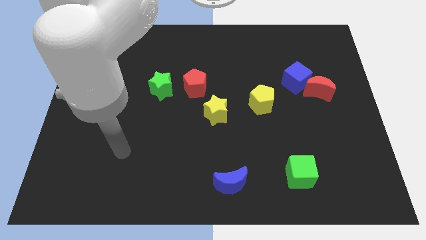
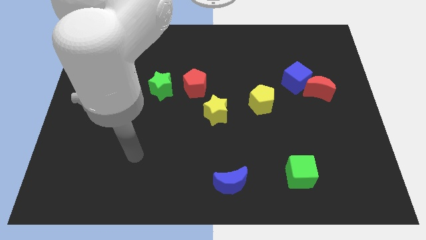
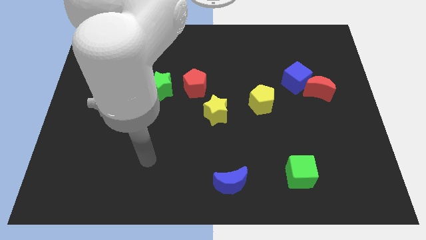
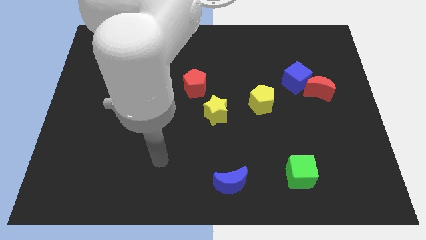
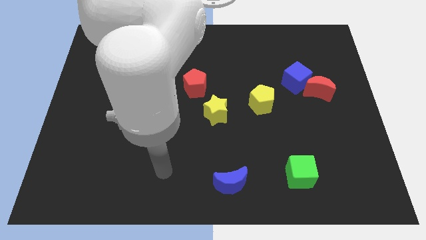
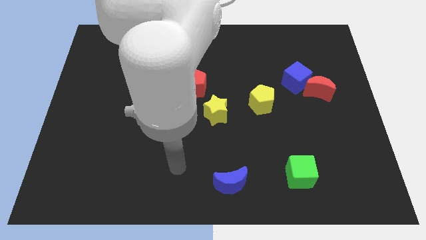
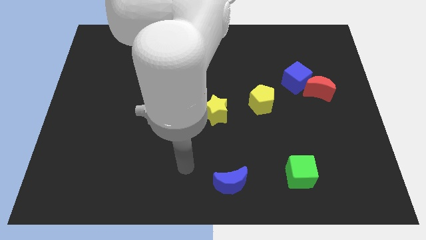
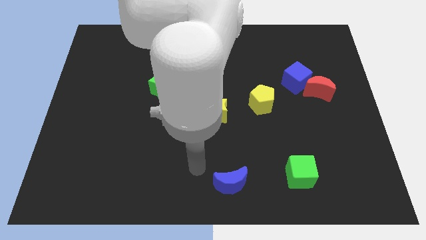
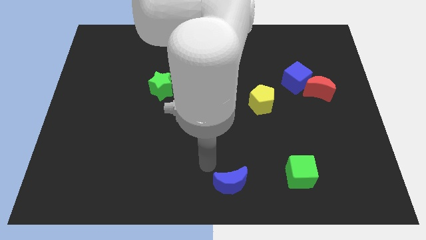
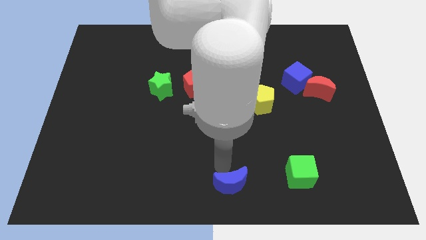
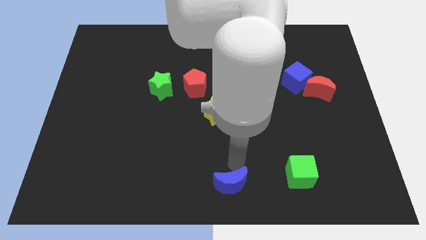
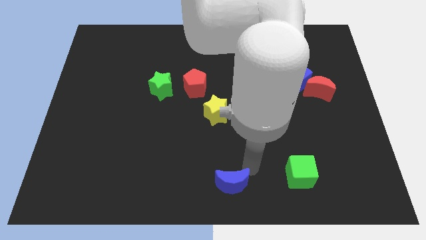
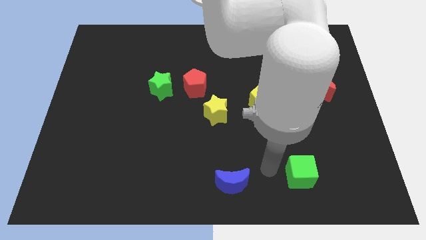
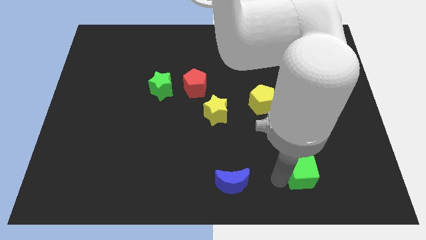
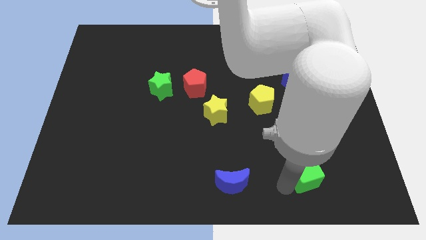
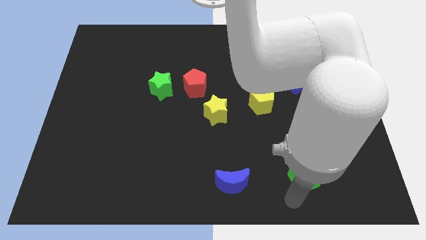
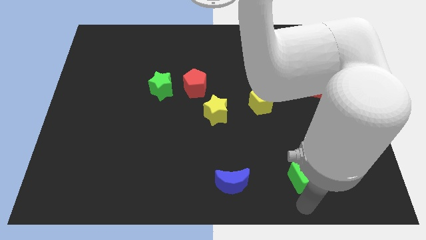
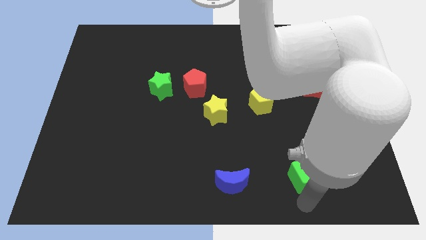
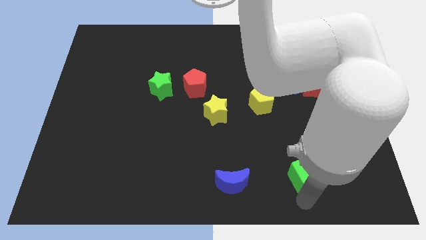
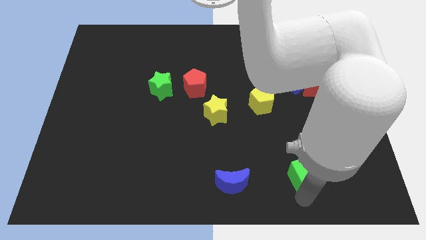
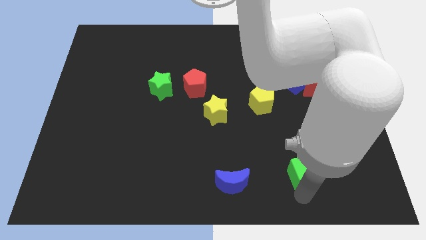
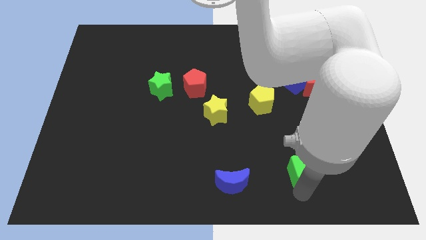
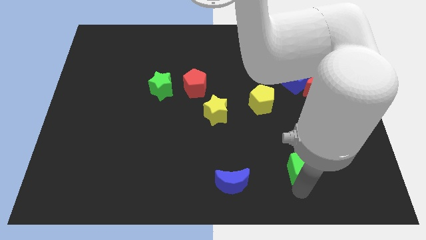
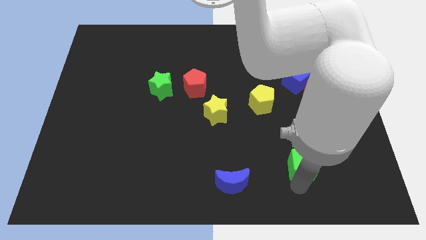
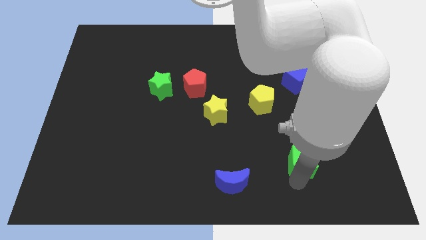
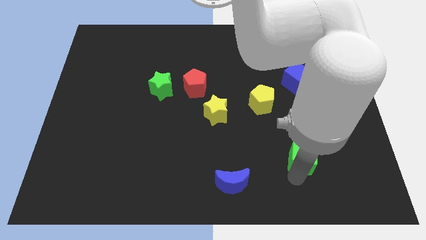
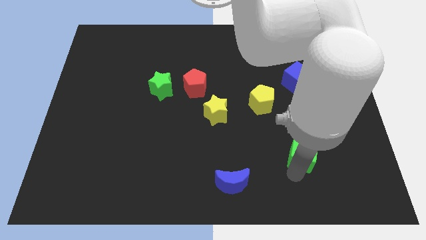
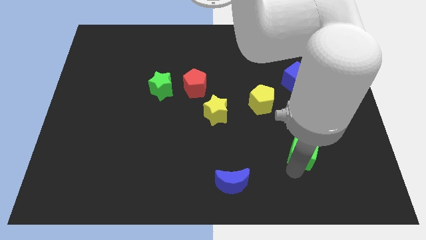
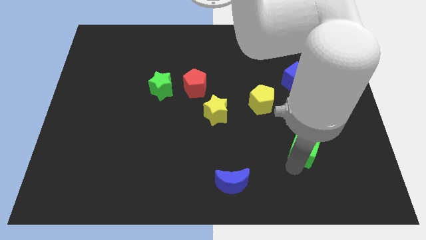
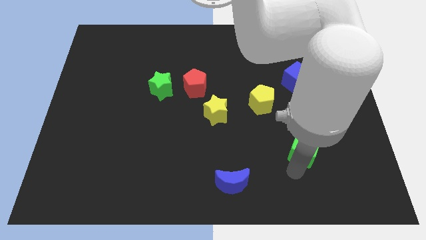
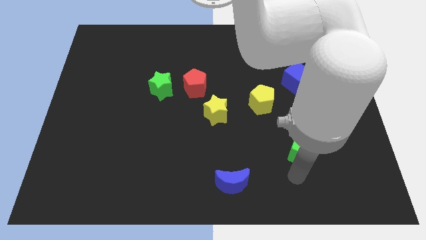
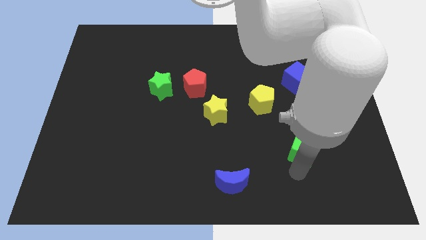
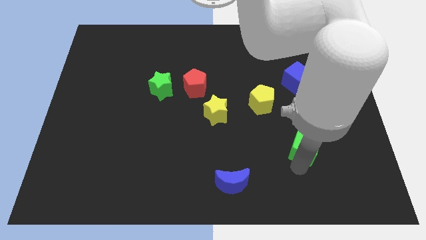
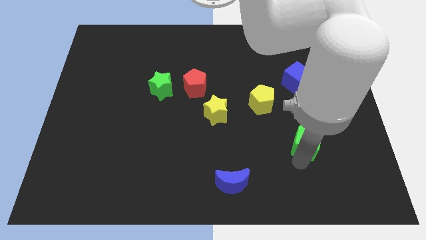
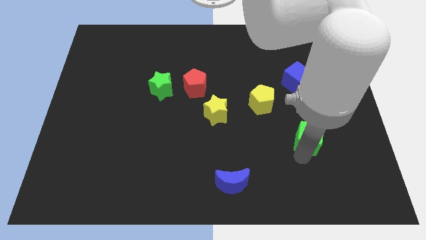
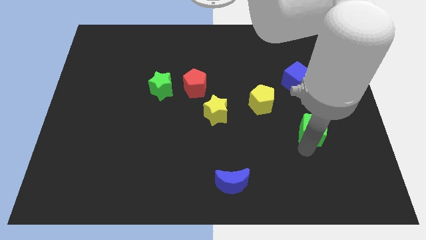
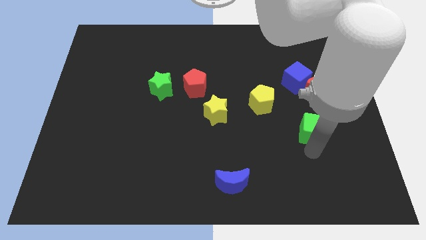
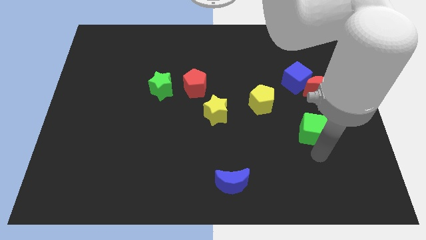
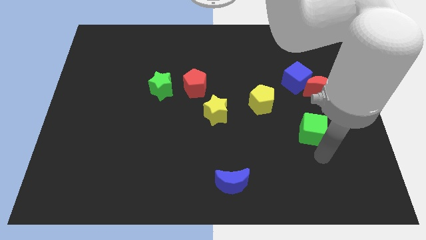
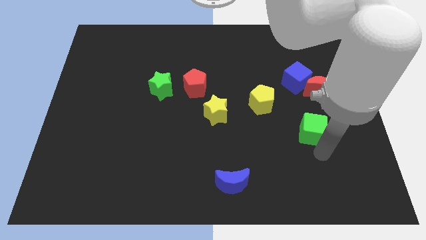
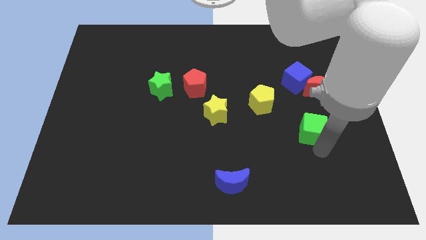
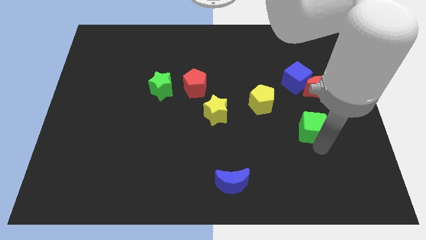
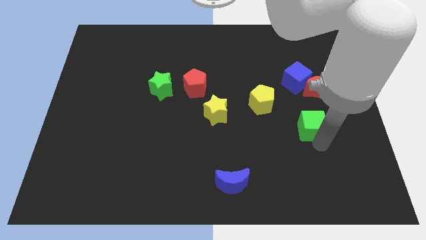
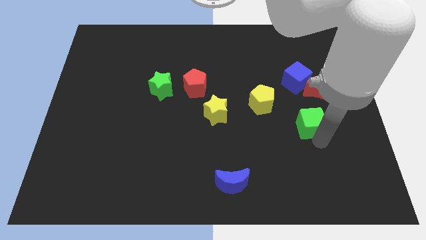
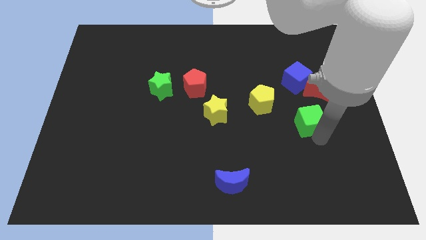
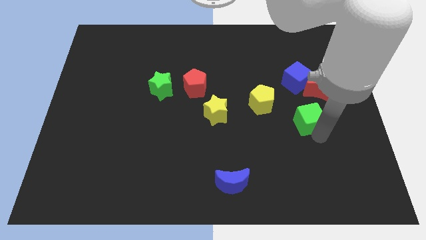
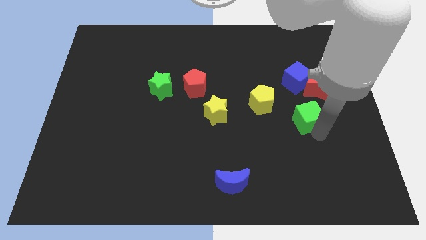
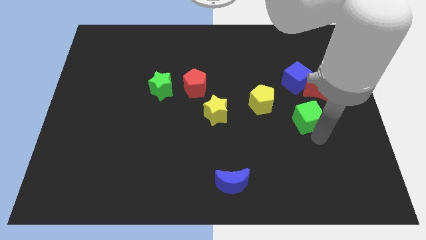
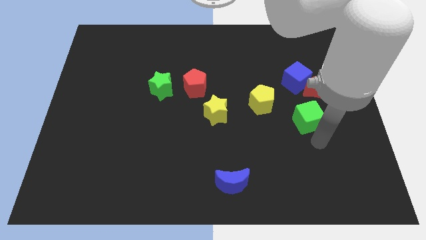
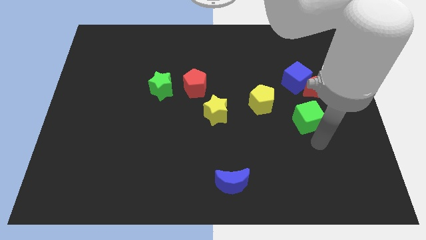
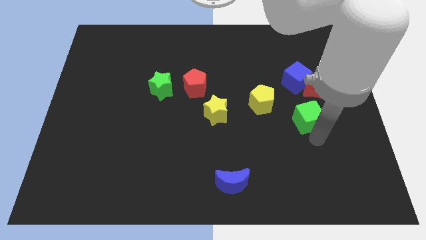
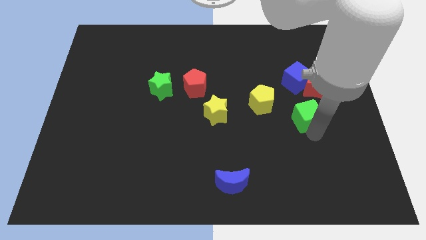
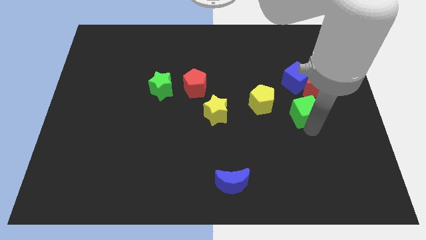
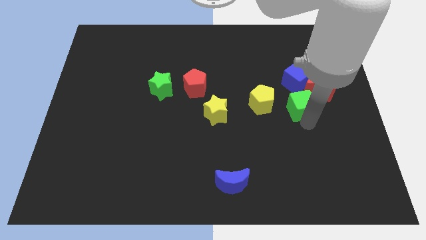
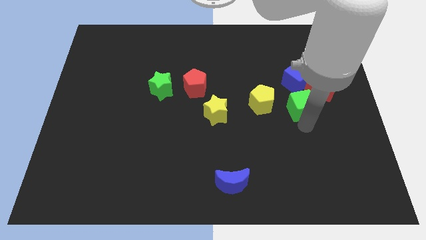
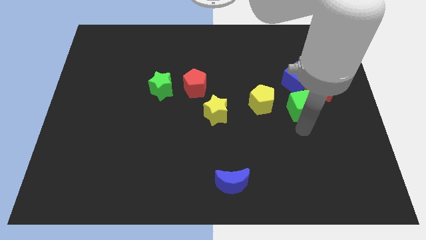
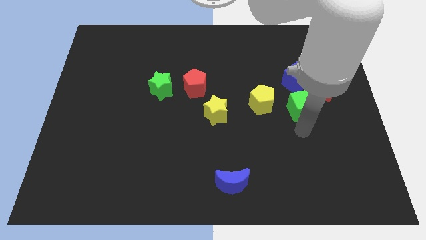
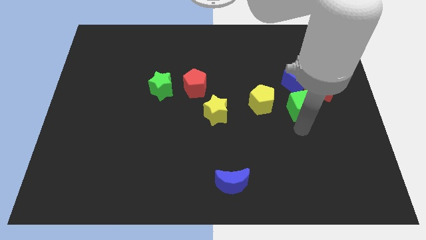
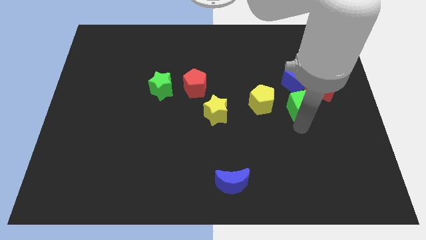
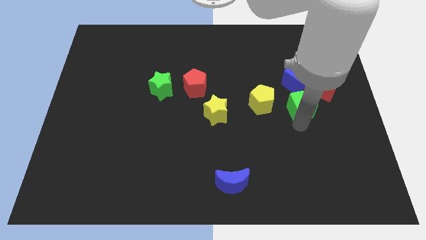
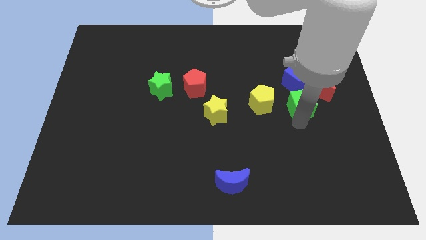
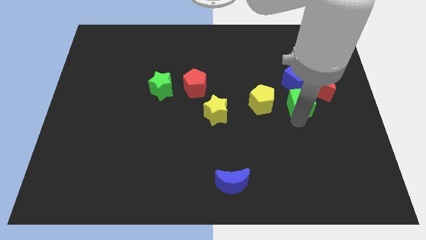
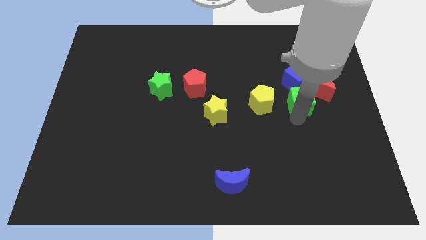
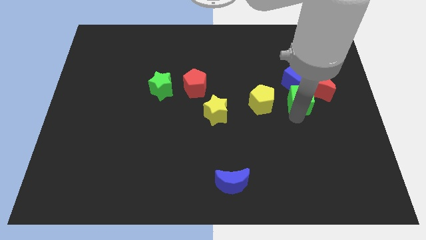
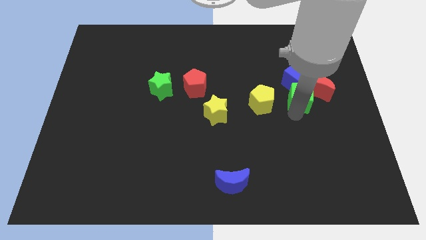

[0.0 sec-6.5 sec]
move the green cube next to the blue cube
